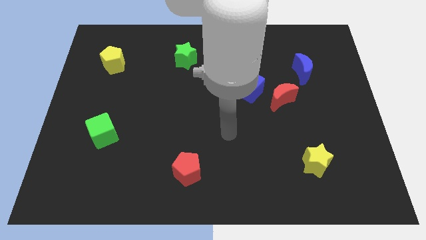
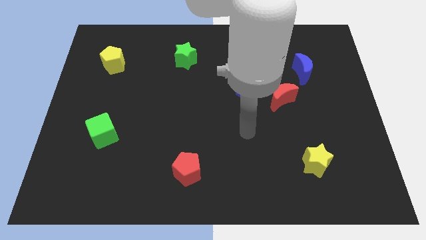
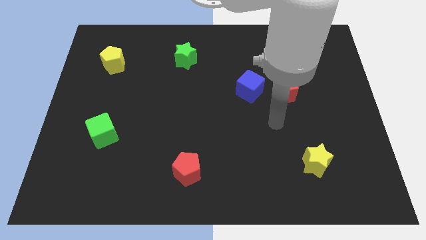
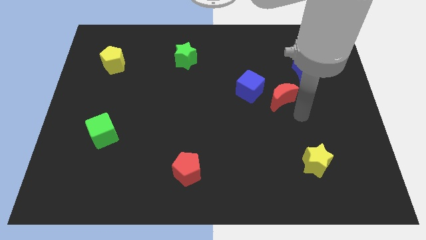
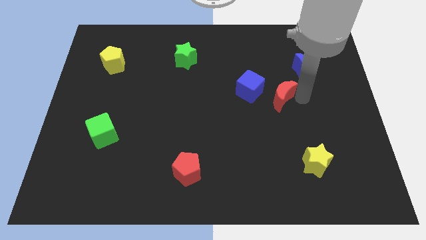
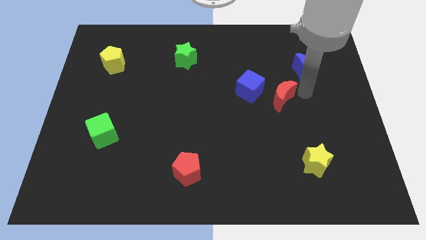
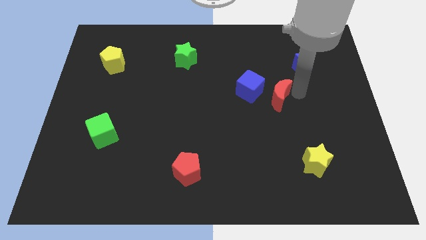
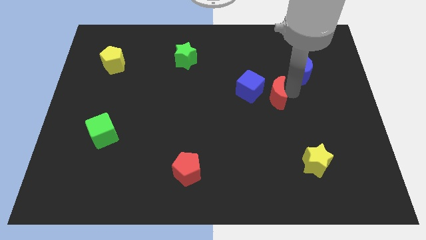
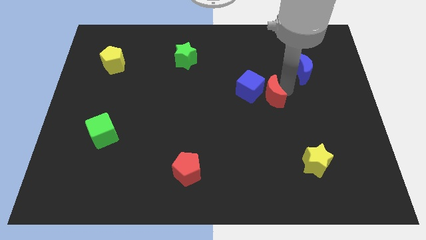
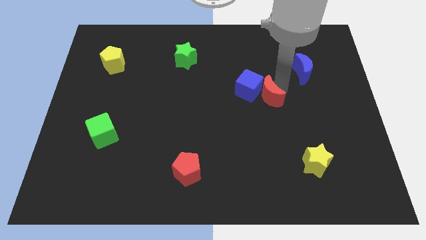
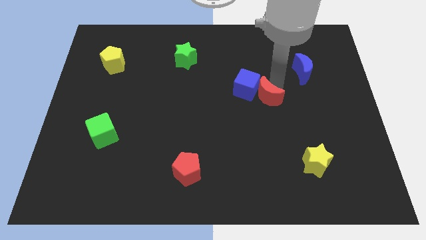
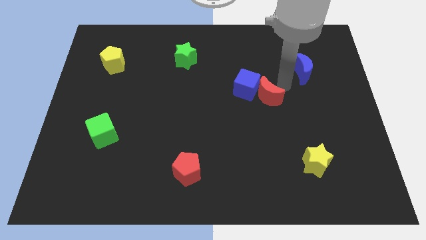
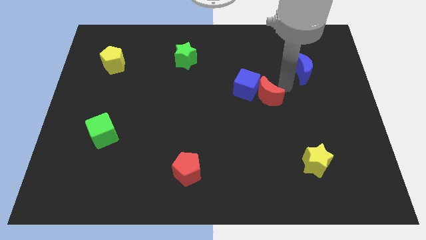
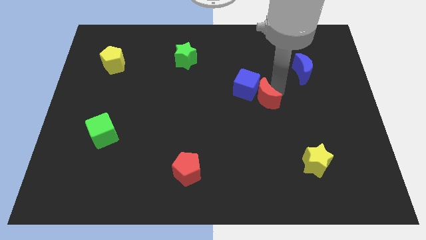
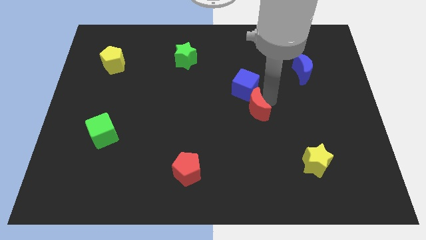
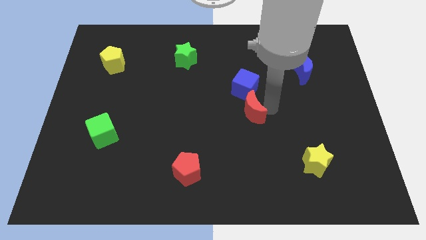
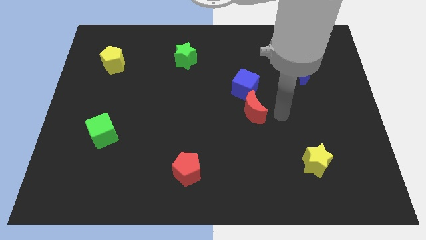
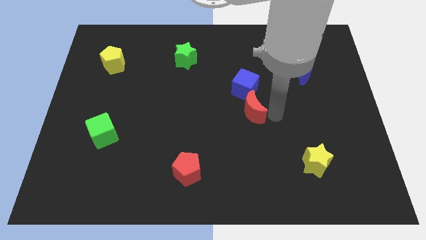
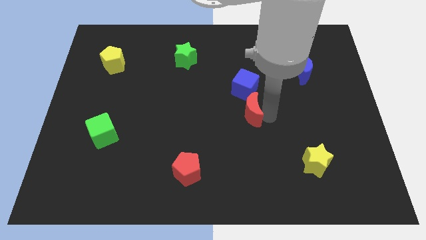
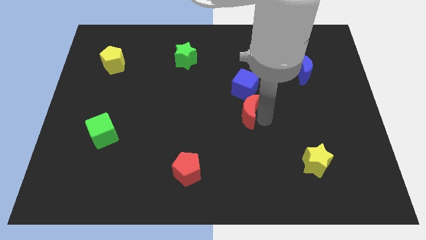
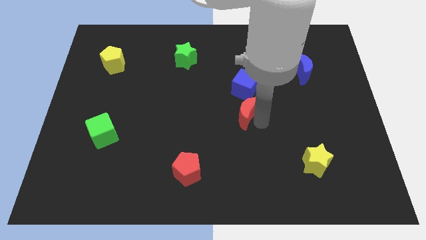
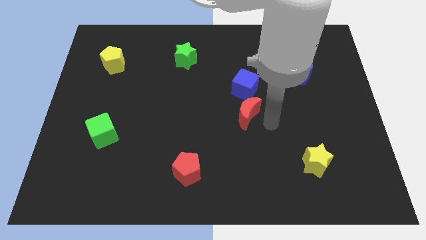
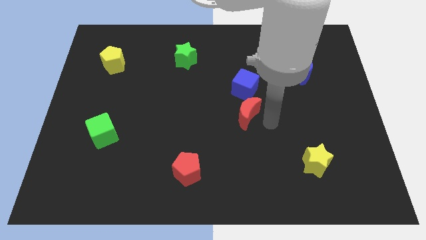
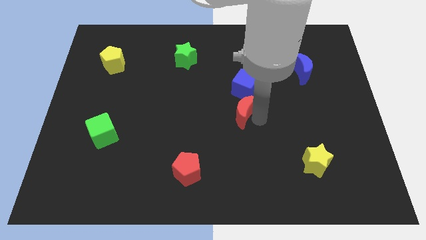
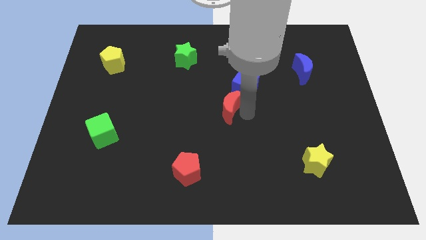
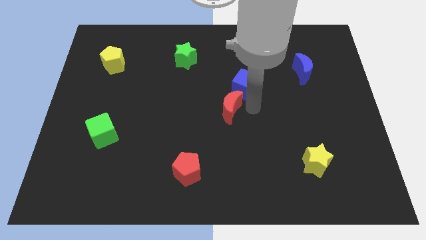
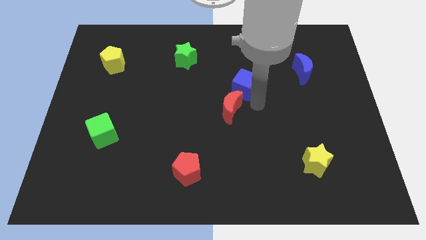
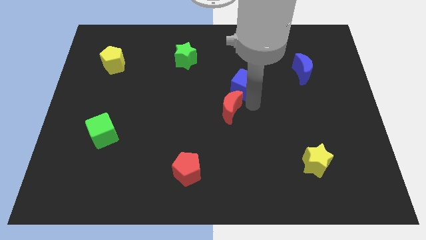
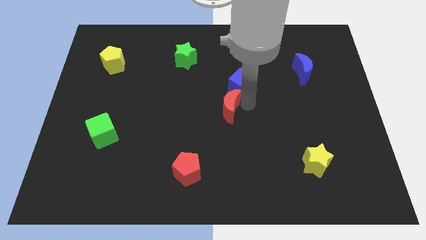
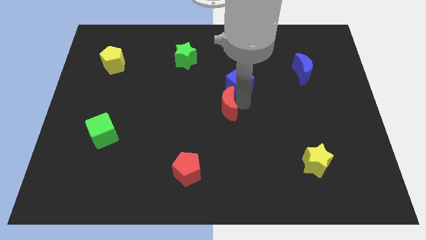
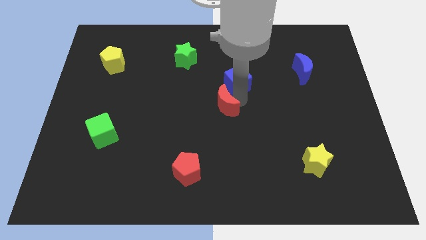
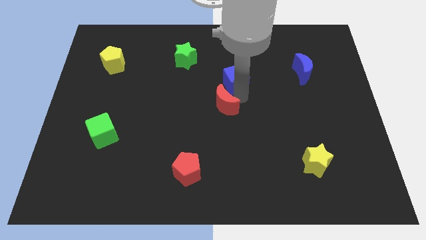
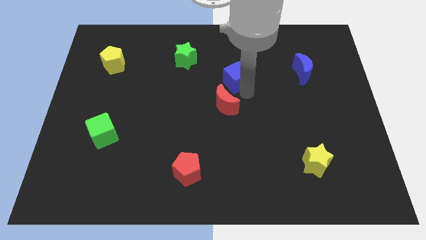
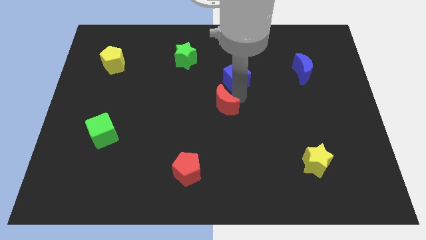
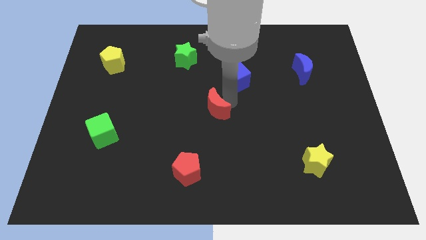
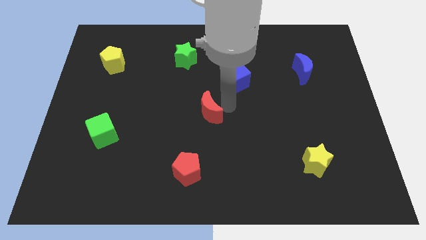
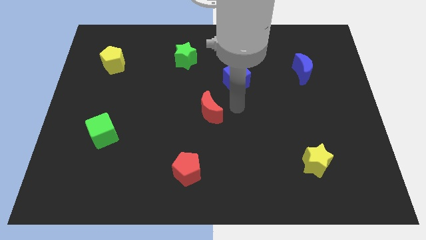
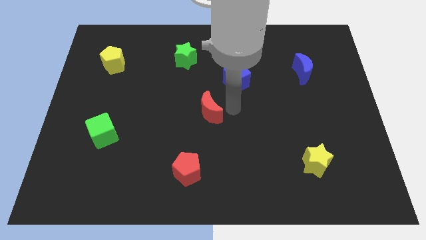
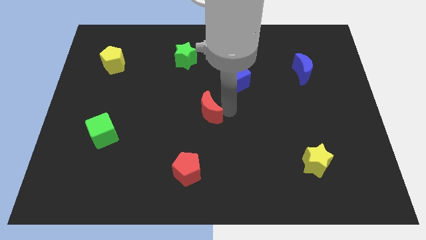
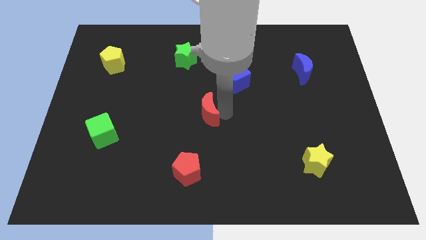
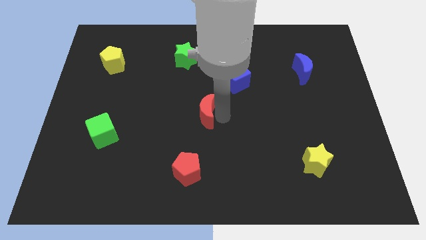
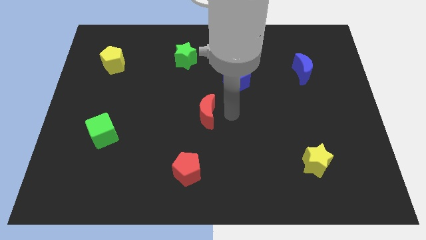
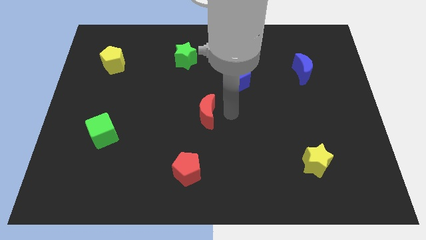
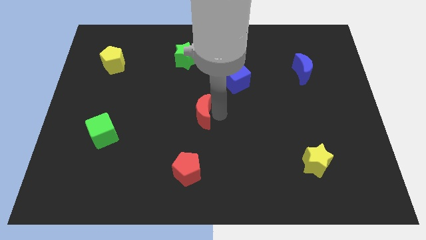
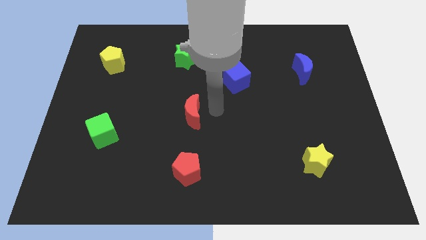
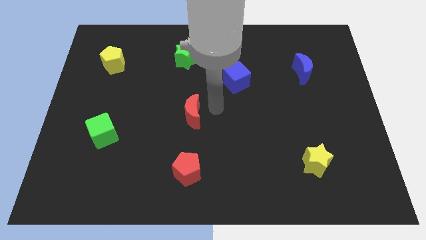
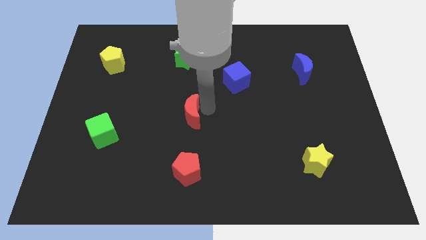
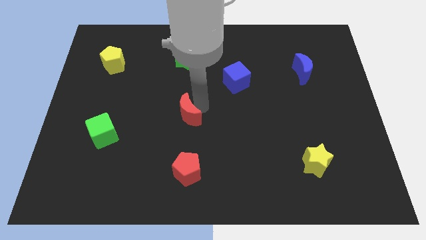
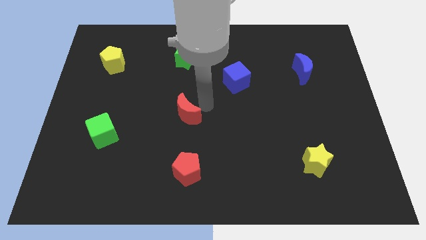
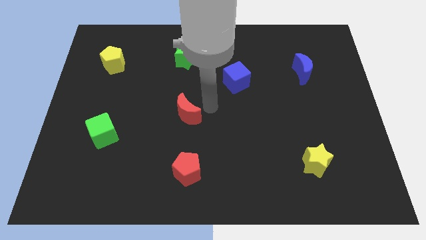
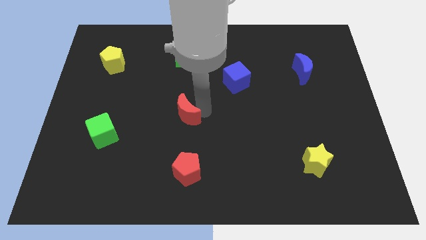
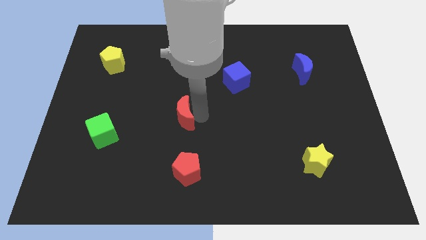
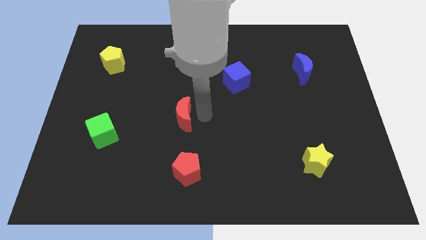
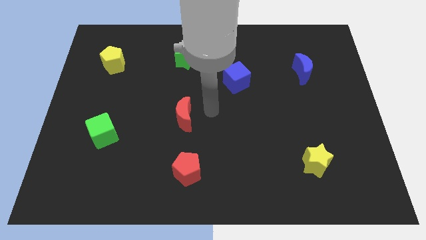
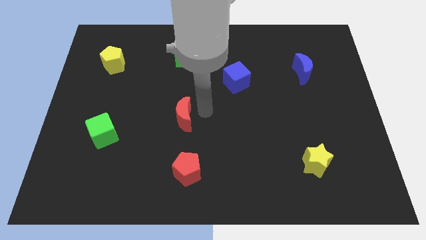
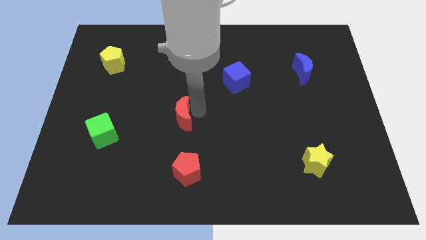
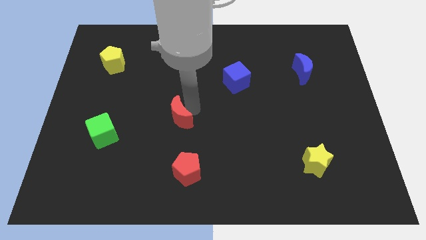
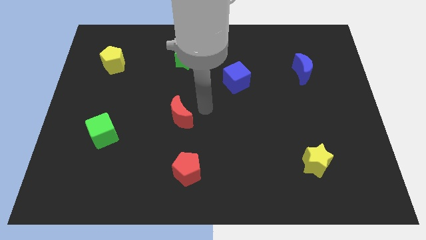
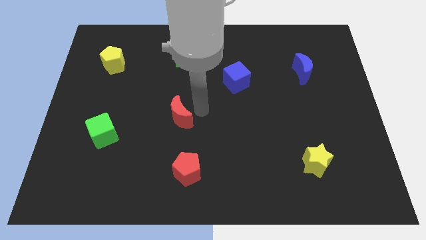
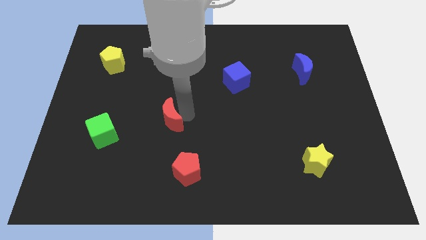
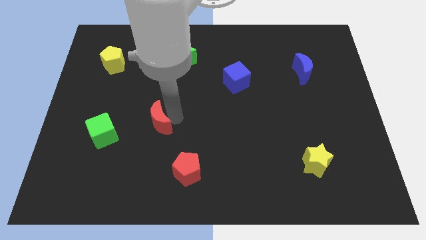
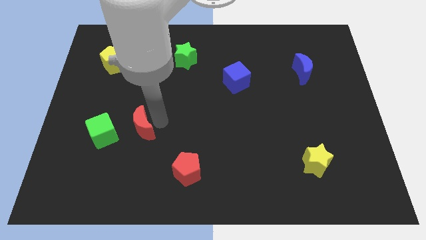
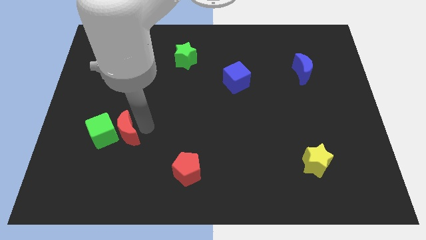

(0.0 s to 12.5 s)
slide the red moon to the green cube
